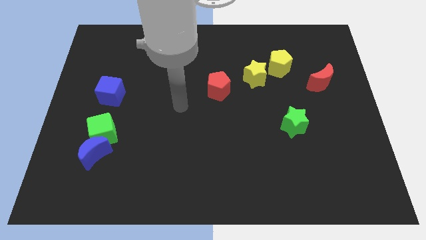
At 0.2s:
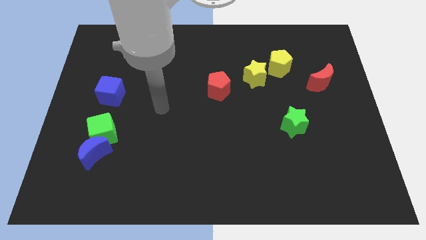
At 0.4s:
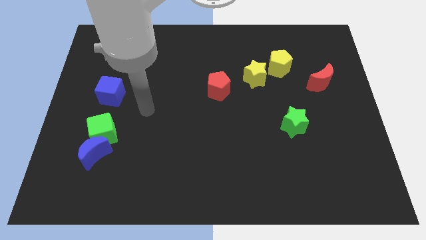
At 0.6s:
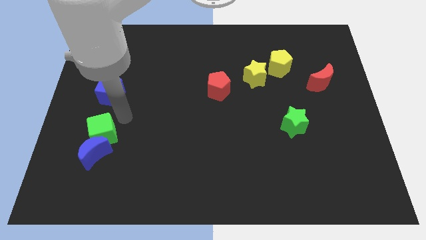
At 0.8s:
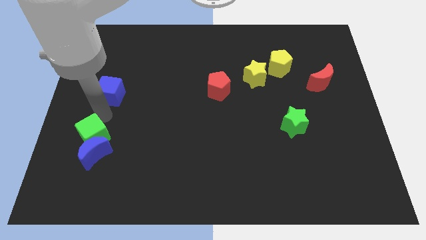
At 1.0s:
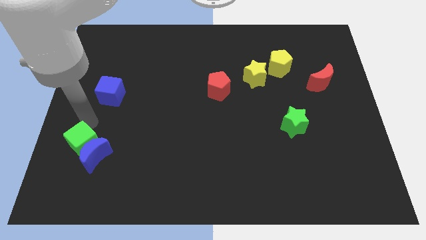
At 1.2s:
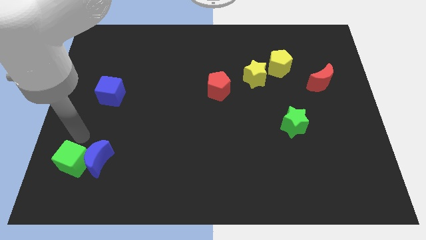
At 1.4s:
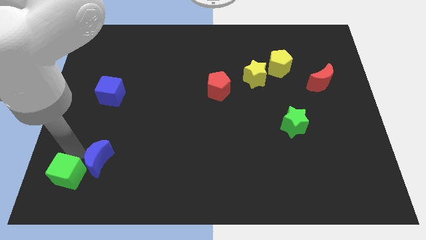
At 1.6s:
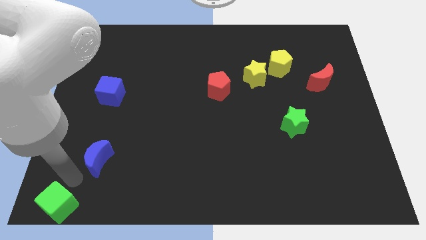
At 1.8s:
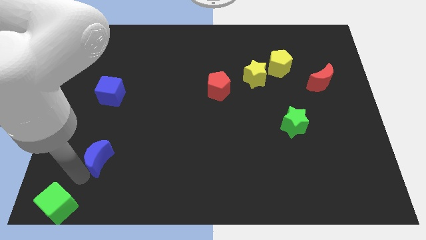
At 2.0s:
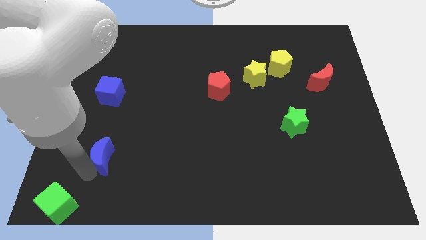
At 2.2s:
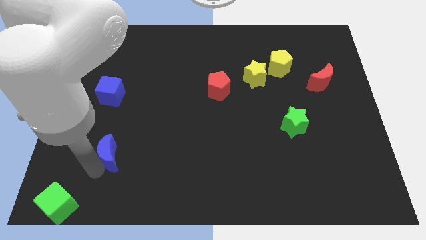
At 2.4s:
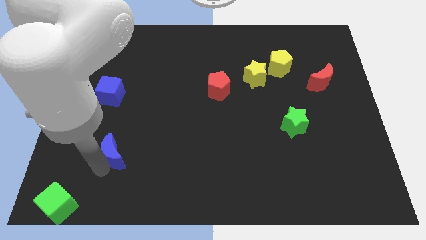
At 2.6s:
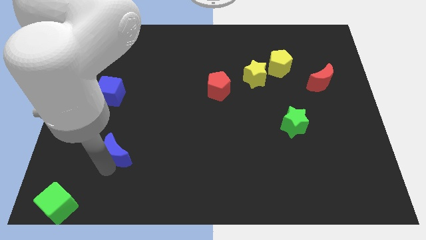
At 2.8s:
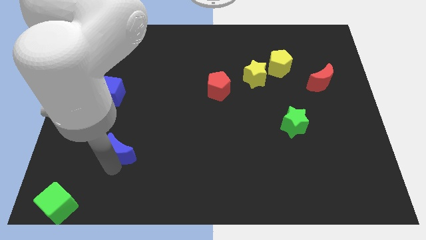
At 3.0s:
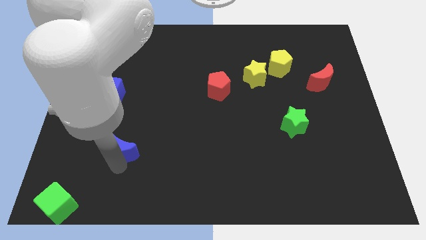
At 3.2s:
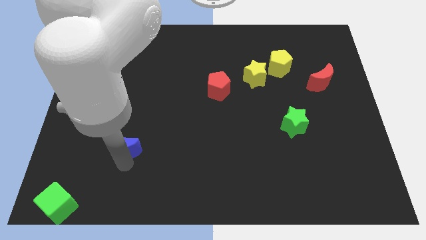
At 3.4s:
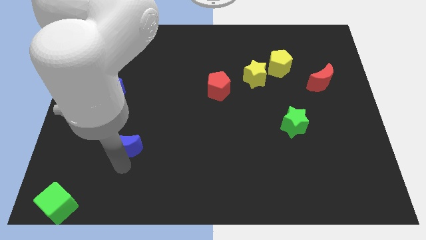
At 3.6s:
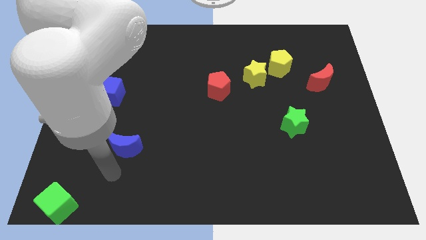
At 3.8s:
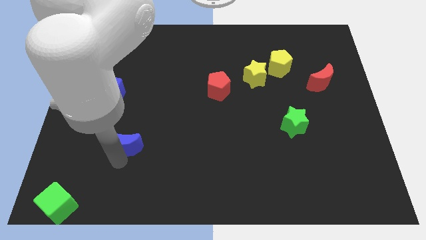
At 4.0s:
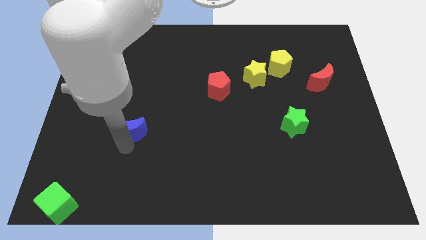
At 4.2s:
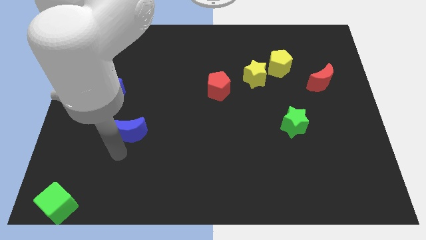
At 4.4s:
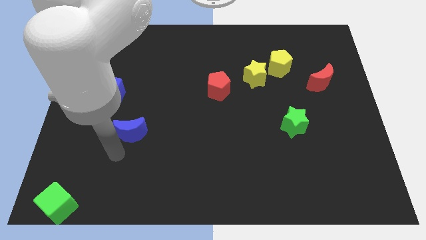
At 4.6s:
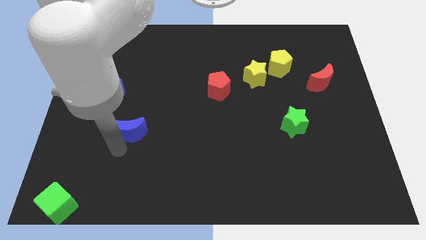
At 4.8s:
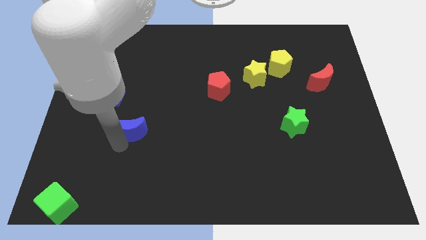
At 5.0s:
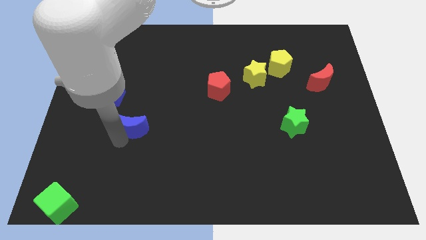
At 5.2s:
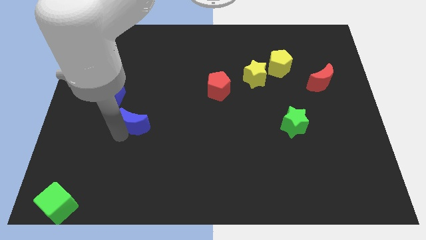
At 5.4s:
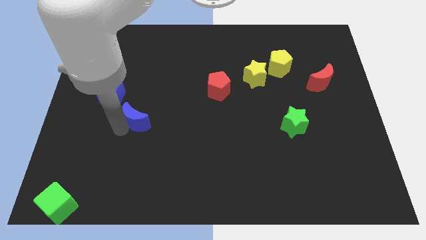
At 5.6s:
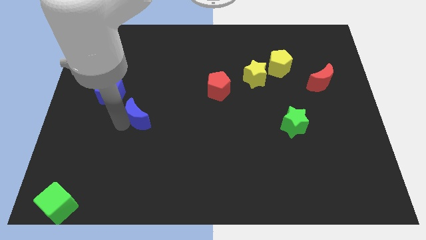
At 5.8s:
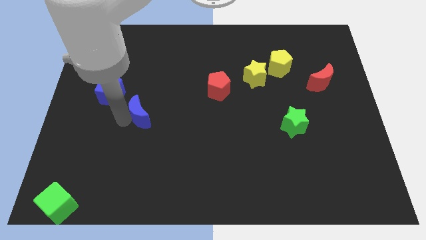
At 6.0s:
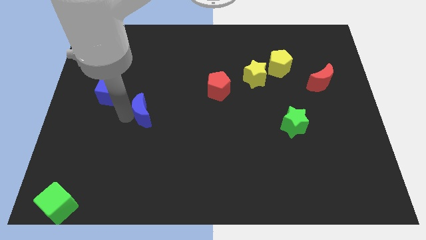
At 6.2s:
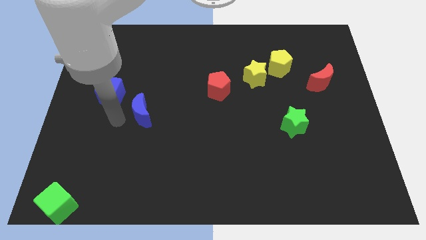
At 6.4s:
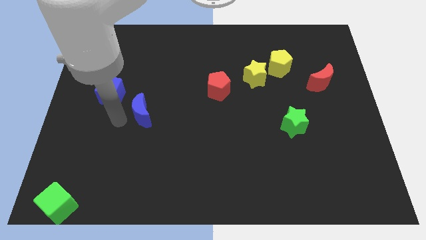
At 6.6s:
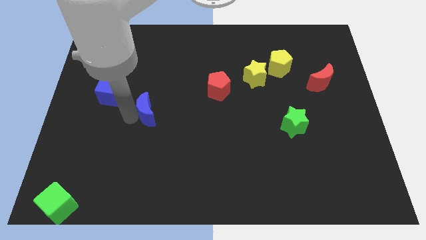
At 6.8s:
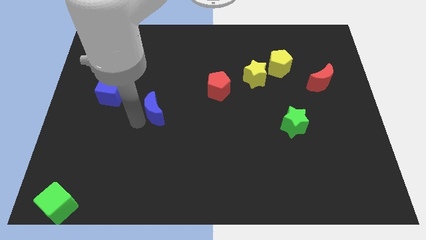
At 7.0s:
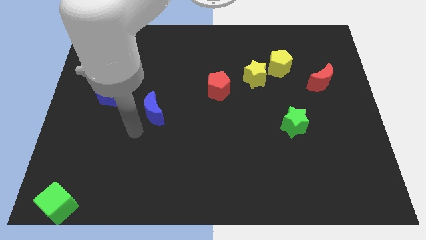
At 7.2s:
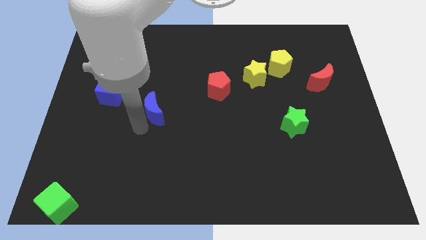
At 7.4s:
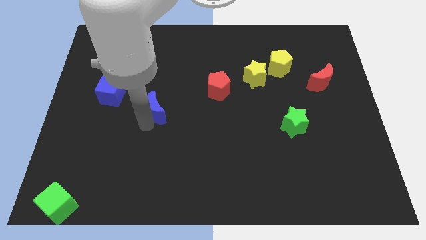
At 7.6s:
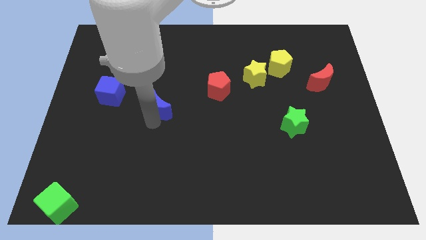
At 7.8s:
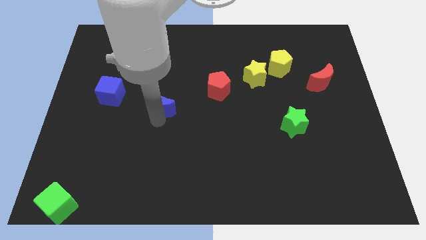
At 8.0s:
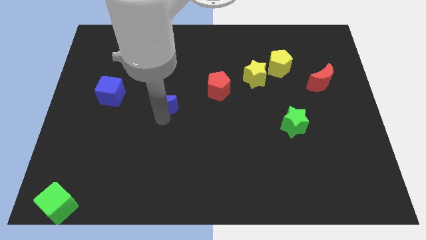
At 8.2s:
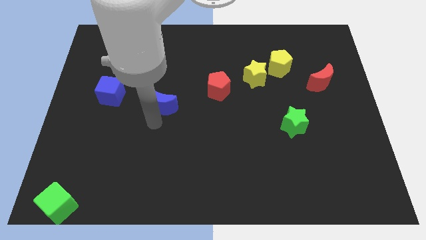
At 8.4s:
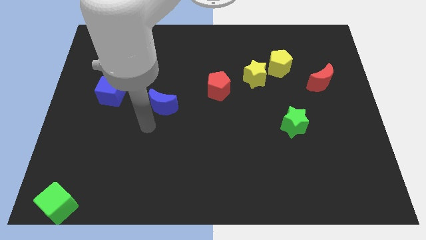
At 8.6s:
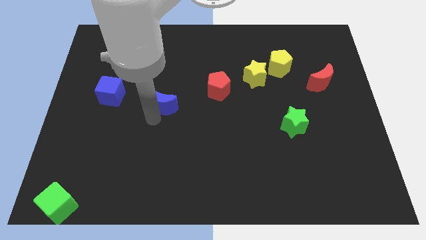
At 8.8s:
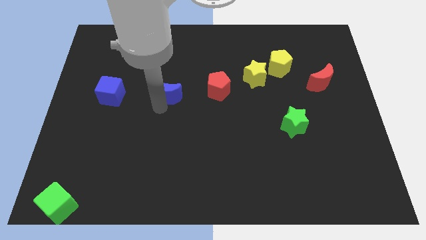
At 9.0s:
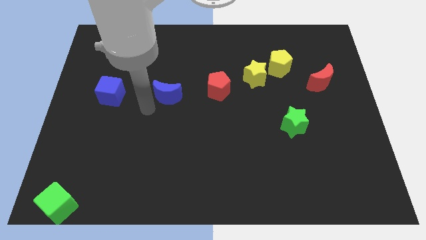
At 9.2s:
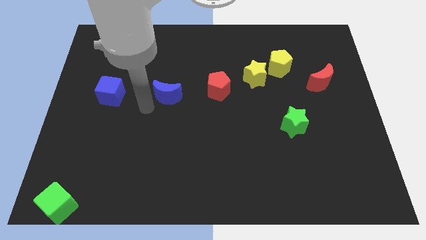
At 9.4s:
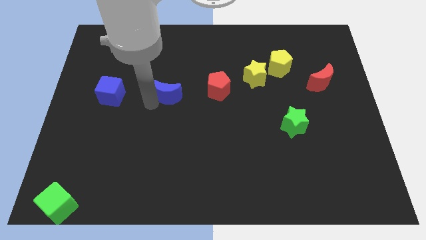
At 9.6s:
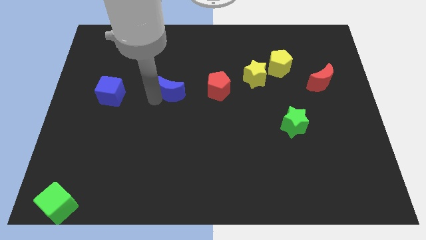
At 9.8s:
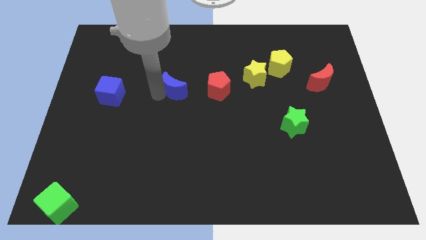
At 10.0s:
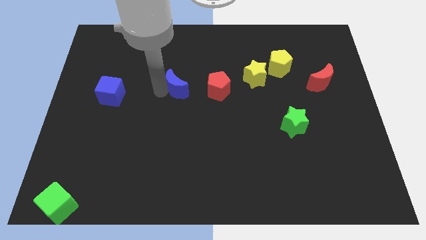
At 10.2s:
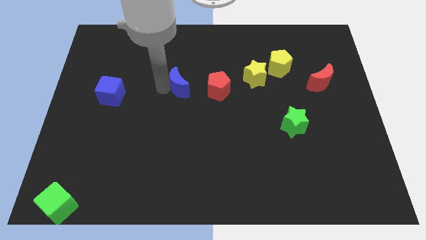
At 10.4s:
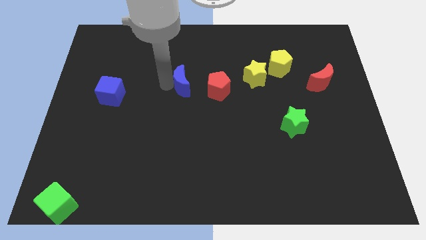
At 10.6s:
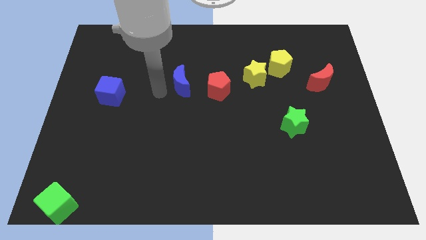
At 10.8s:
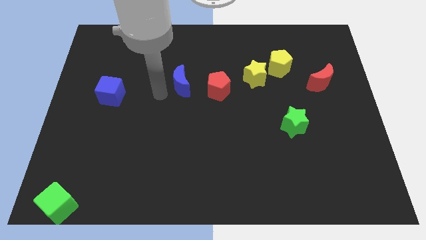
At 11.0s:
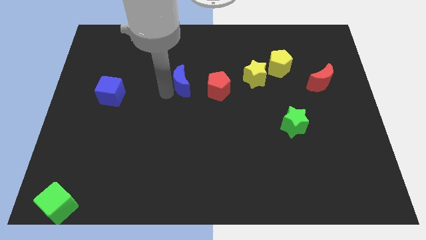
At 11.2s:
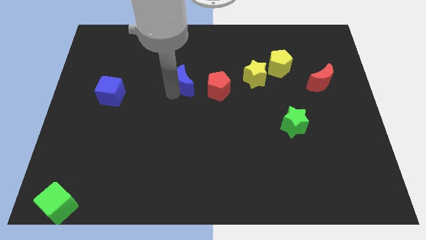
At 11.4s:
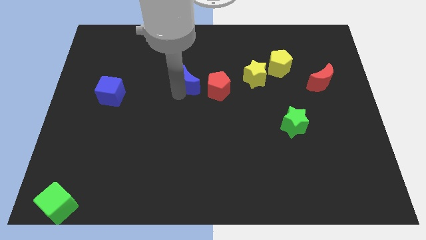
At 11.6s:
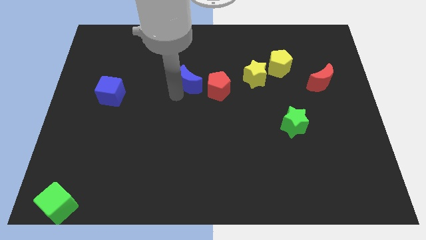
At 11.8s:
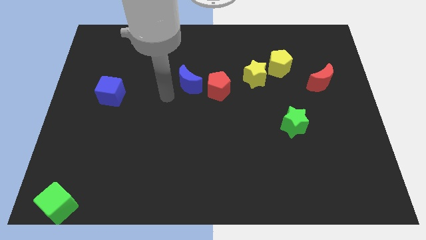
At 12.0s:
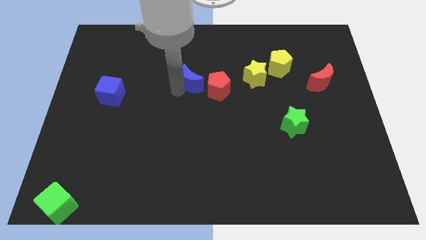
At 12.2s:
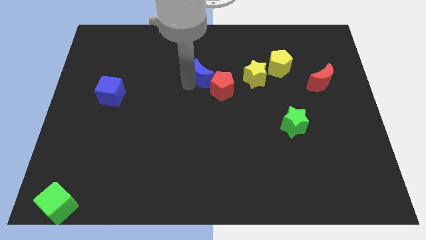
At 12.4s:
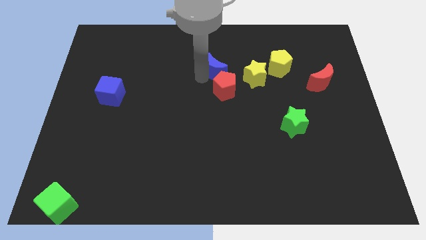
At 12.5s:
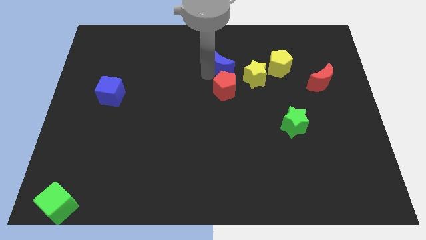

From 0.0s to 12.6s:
push the blue moon to the top left of the yellow star

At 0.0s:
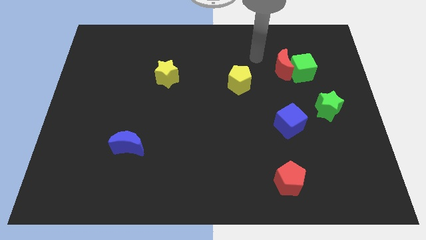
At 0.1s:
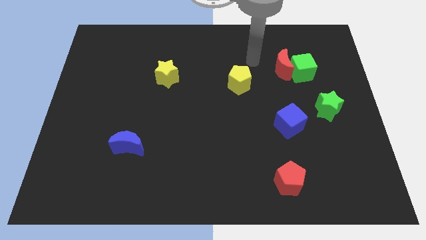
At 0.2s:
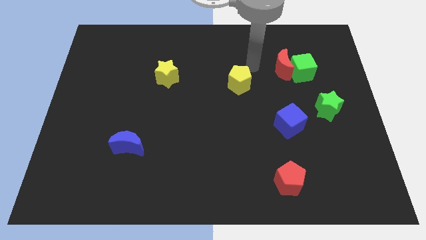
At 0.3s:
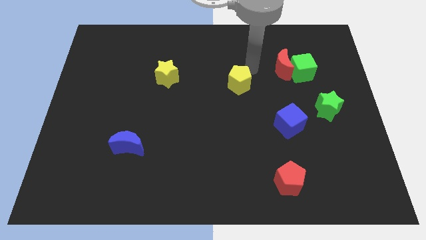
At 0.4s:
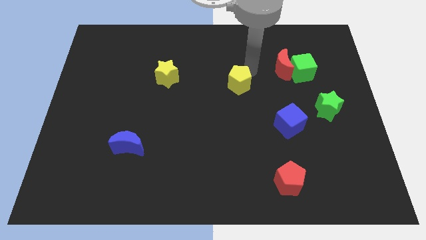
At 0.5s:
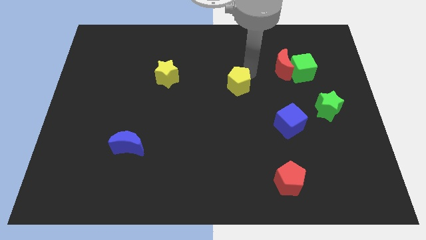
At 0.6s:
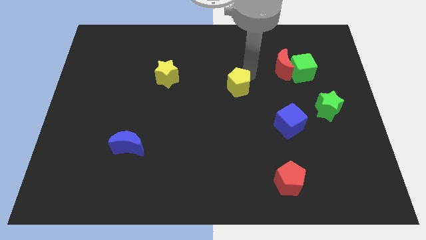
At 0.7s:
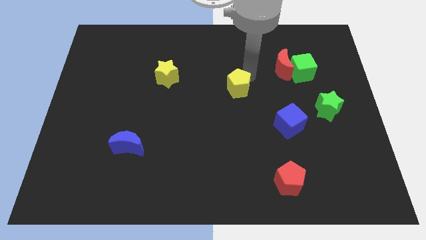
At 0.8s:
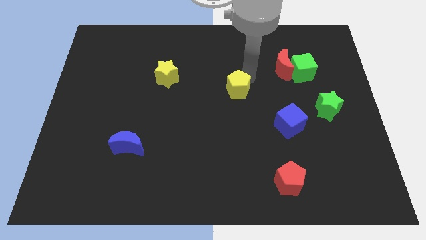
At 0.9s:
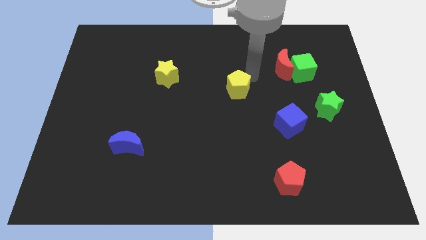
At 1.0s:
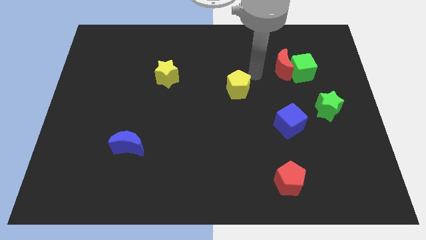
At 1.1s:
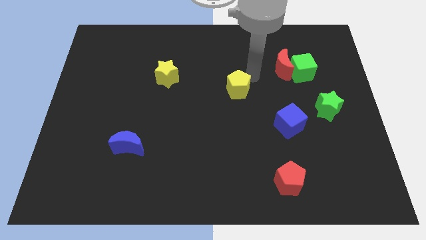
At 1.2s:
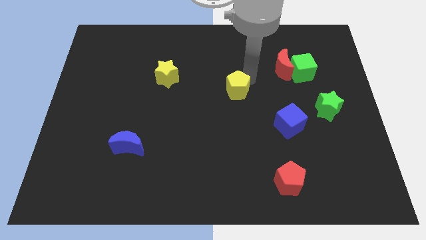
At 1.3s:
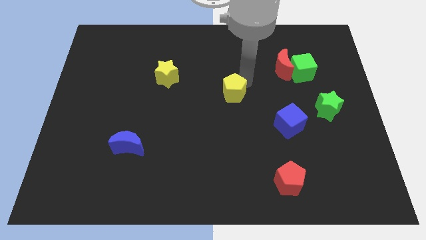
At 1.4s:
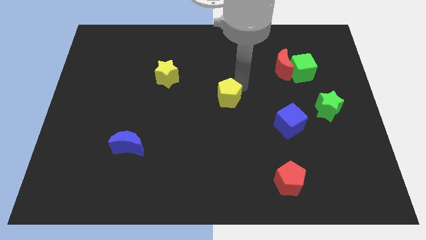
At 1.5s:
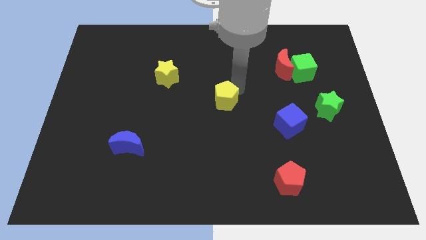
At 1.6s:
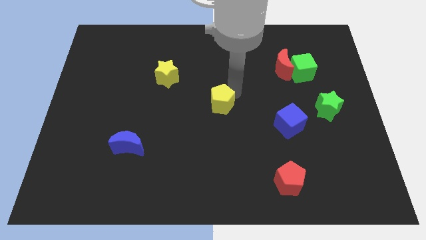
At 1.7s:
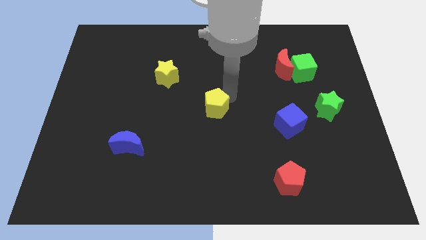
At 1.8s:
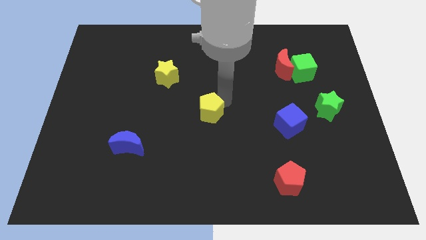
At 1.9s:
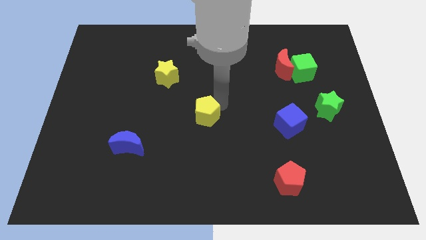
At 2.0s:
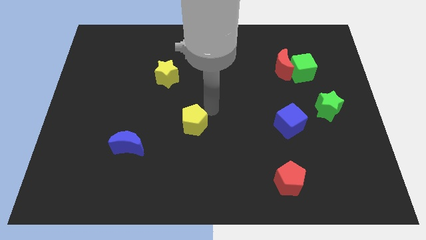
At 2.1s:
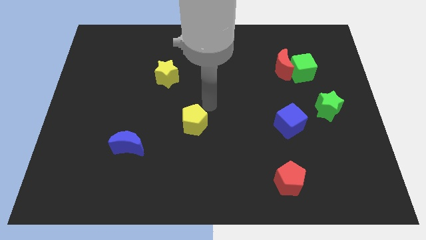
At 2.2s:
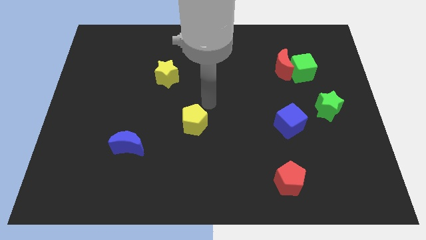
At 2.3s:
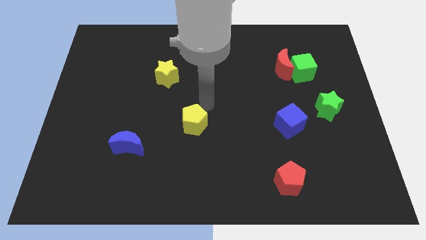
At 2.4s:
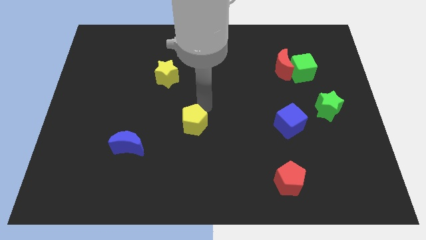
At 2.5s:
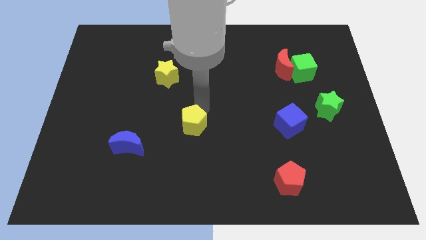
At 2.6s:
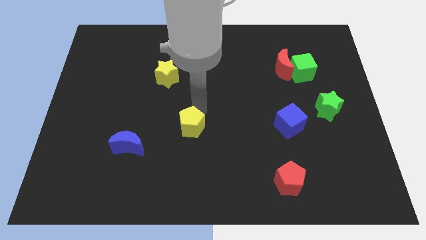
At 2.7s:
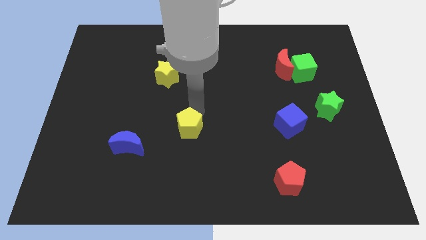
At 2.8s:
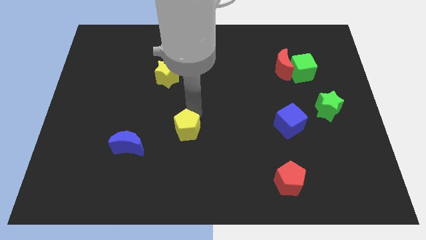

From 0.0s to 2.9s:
put the yellow pentagon to the right of the blue moon
